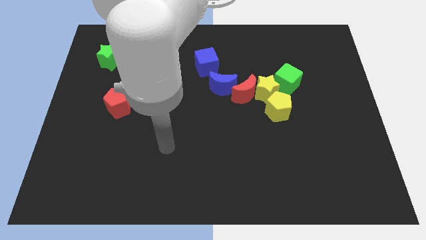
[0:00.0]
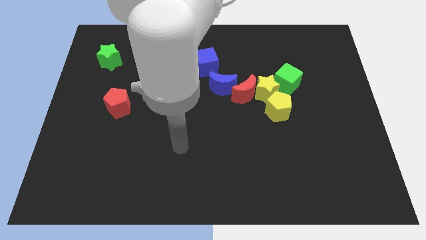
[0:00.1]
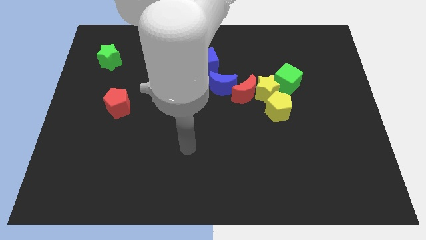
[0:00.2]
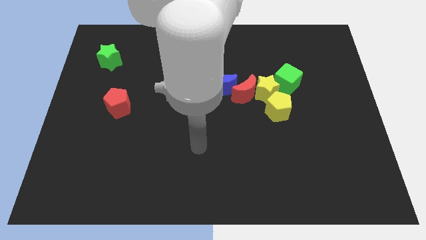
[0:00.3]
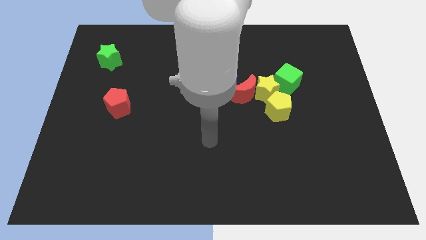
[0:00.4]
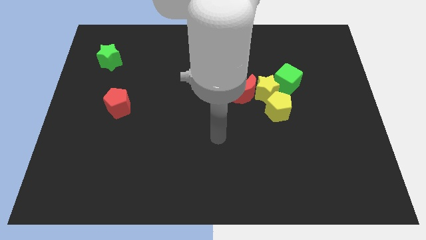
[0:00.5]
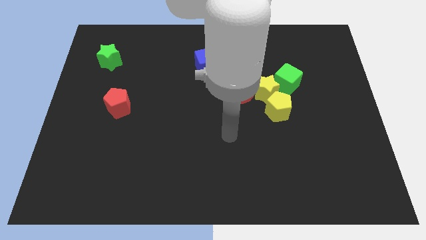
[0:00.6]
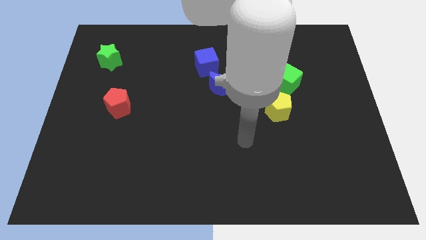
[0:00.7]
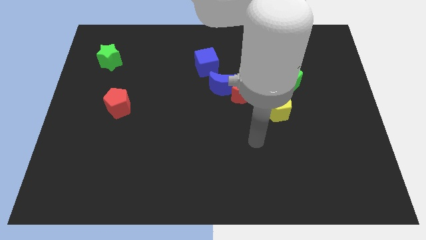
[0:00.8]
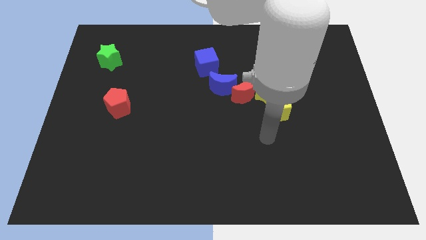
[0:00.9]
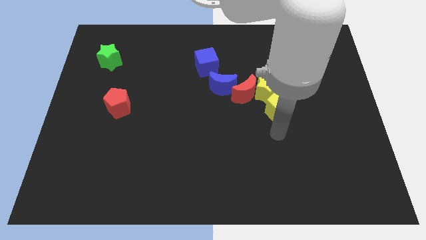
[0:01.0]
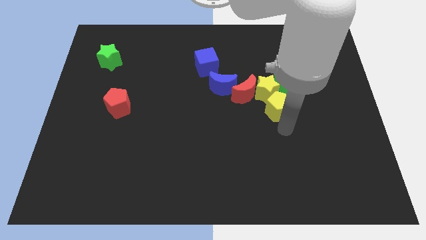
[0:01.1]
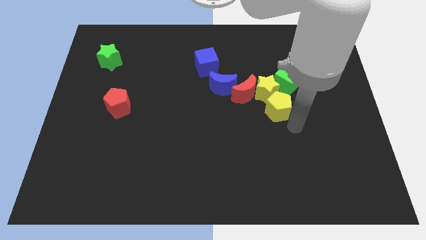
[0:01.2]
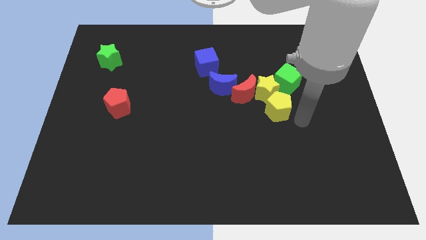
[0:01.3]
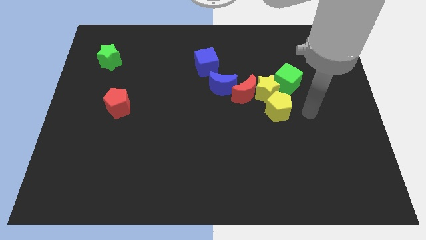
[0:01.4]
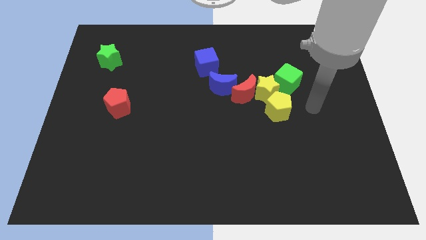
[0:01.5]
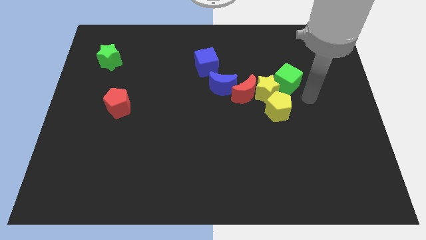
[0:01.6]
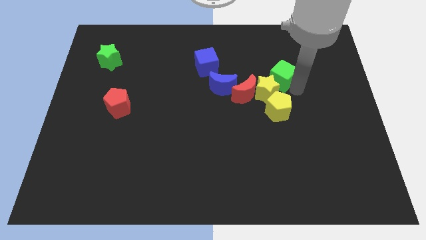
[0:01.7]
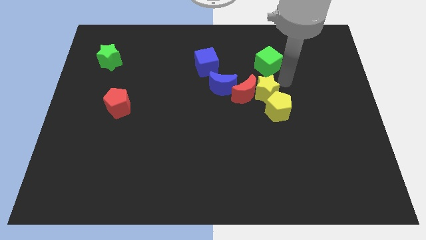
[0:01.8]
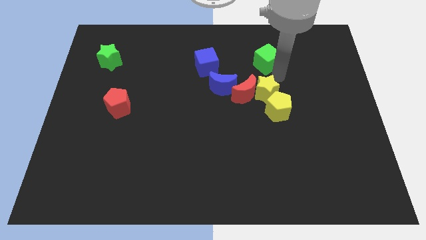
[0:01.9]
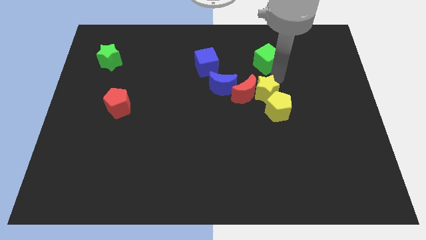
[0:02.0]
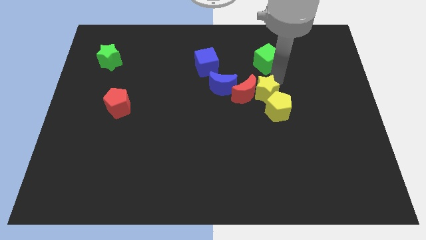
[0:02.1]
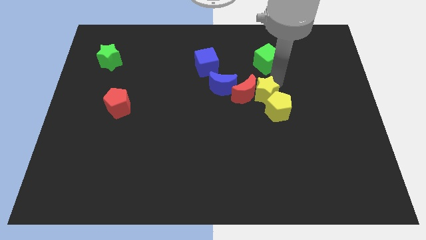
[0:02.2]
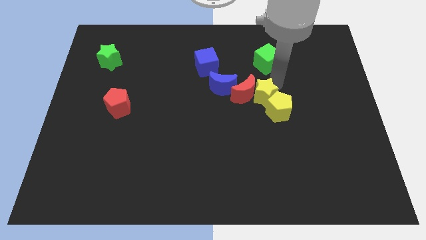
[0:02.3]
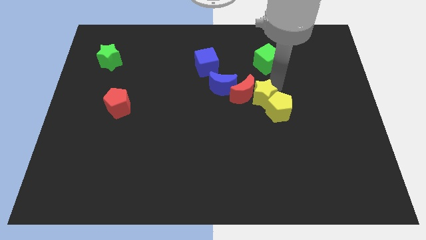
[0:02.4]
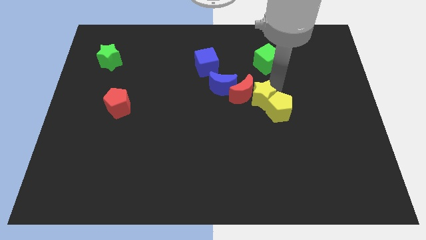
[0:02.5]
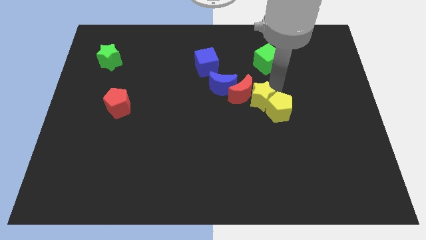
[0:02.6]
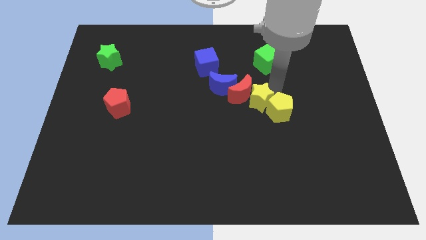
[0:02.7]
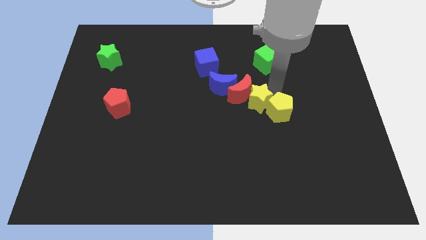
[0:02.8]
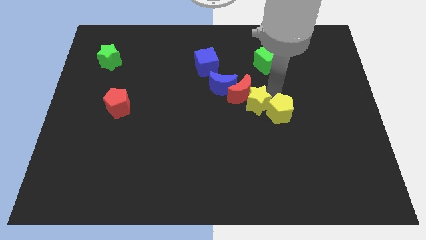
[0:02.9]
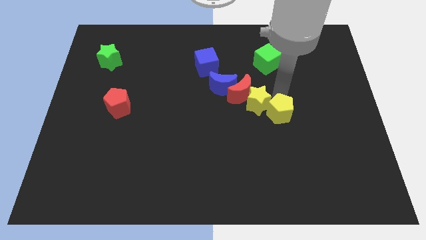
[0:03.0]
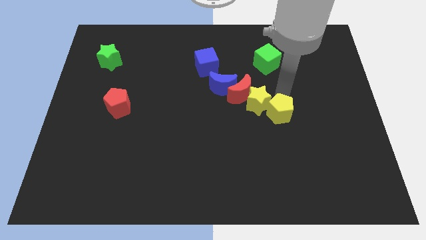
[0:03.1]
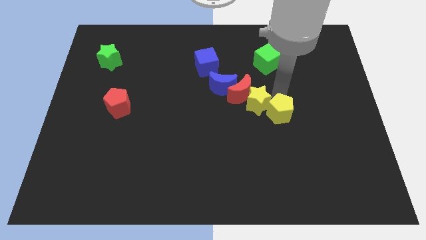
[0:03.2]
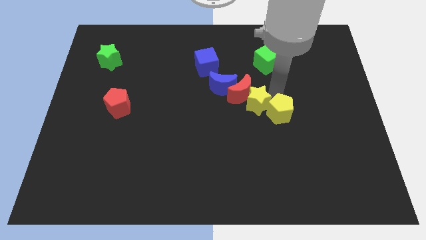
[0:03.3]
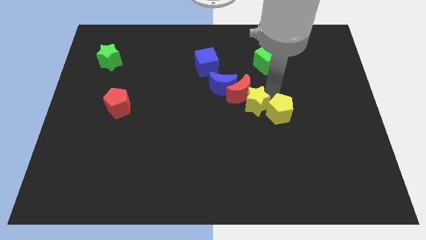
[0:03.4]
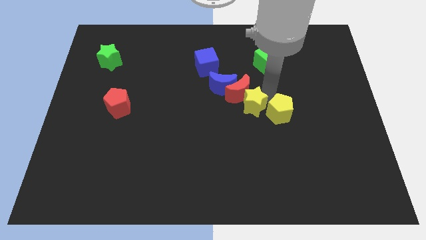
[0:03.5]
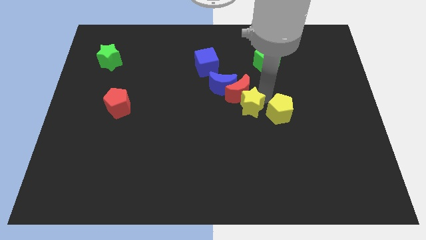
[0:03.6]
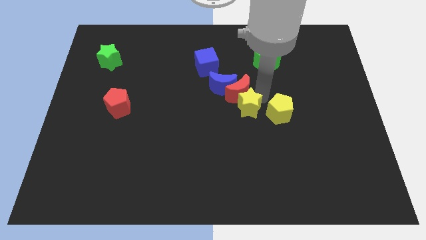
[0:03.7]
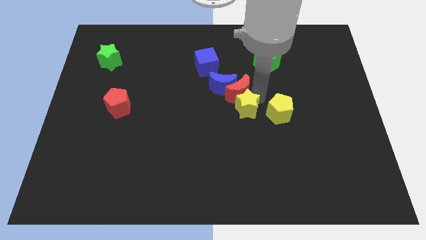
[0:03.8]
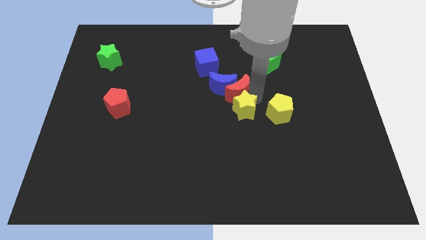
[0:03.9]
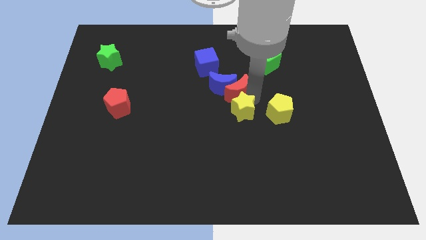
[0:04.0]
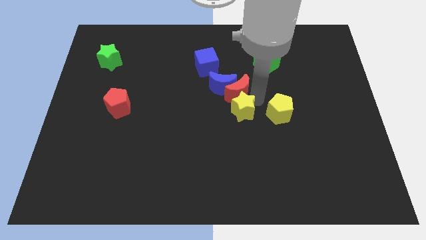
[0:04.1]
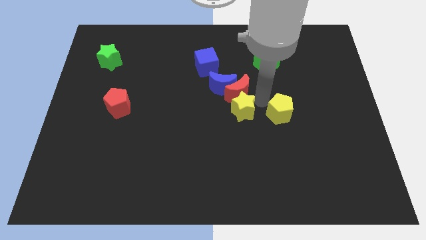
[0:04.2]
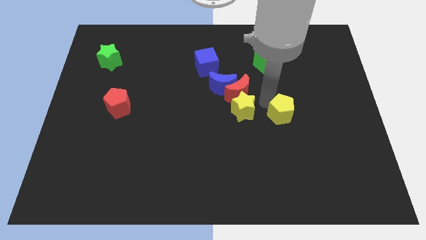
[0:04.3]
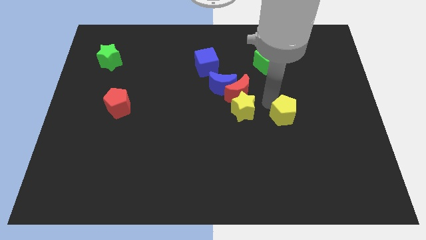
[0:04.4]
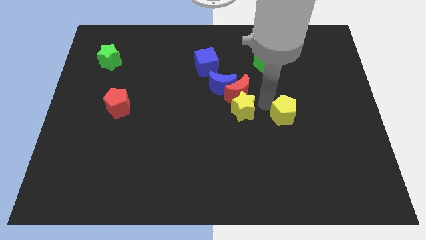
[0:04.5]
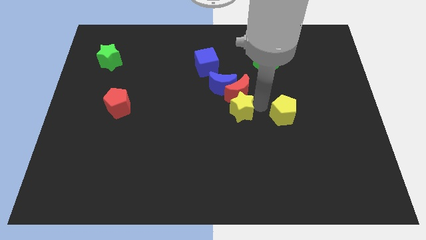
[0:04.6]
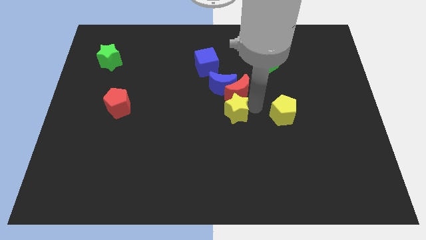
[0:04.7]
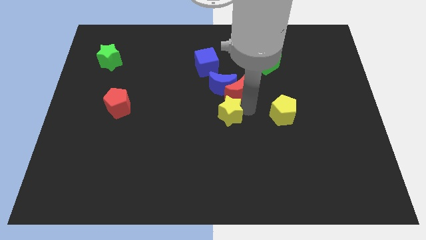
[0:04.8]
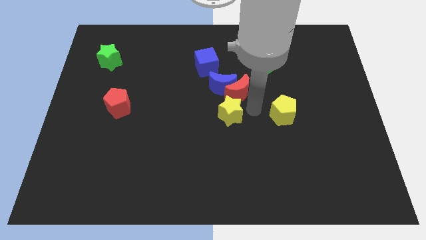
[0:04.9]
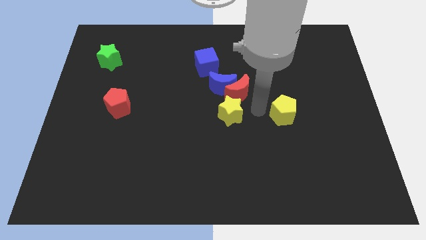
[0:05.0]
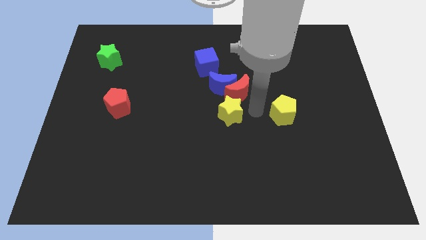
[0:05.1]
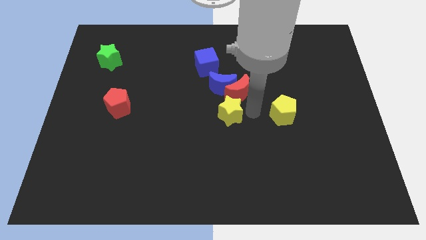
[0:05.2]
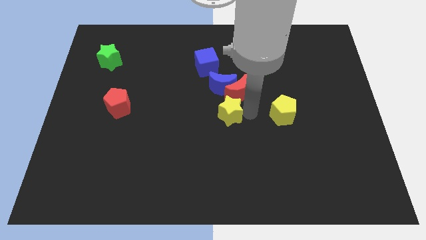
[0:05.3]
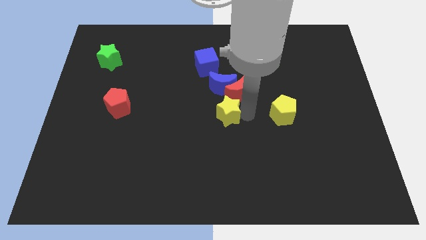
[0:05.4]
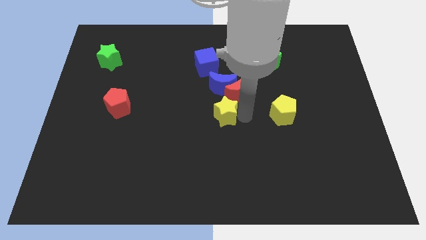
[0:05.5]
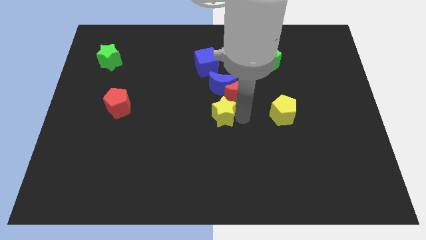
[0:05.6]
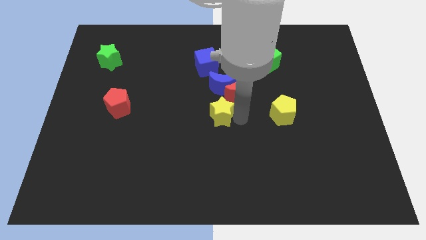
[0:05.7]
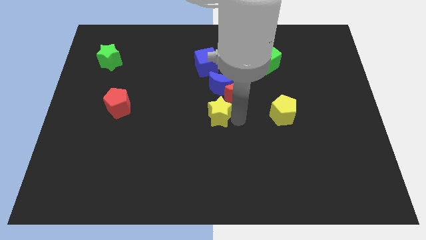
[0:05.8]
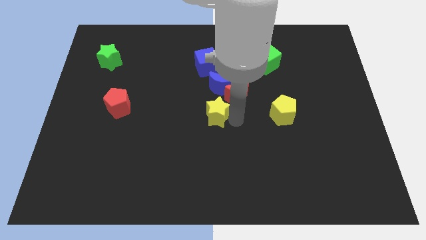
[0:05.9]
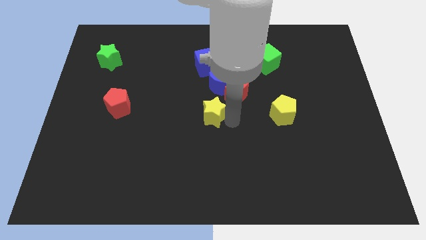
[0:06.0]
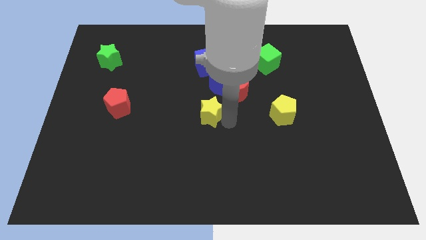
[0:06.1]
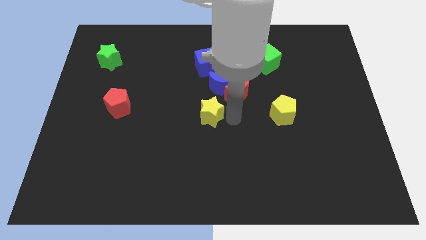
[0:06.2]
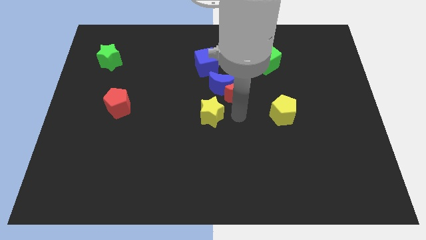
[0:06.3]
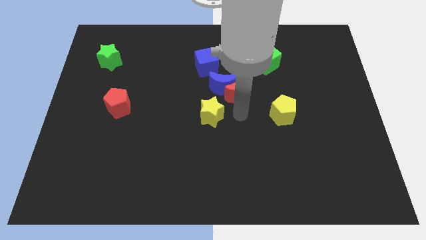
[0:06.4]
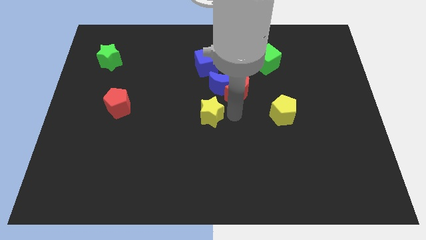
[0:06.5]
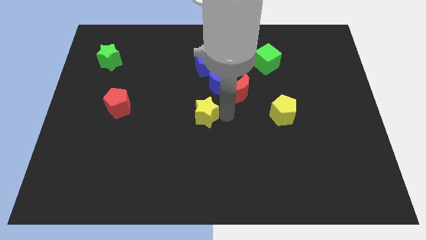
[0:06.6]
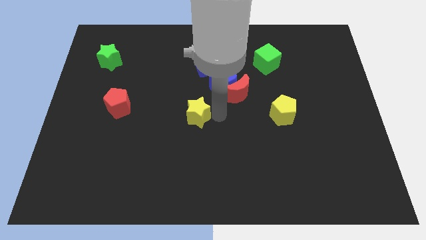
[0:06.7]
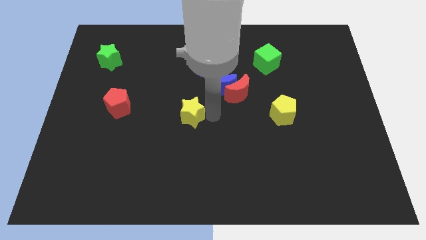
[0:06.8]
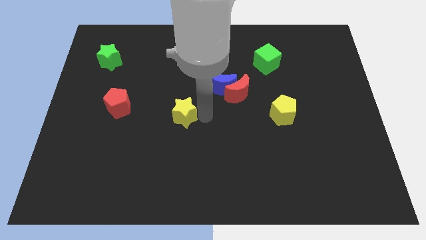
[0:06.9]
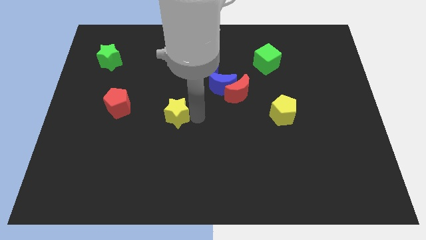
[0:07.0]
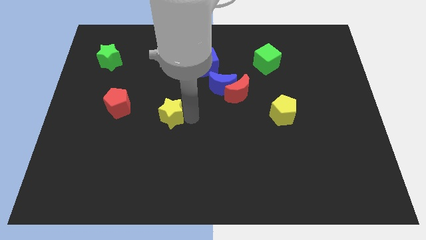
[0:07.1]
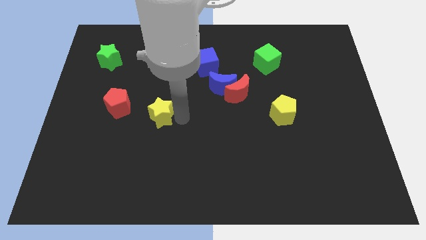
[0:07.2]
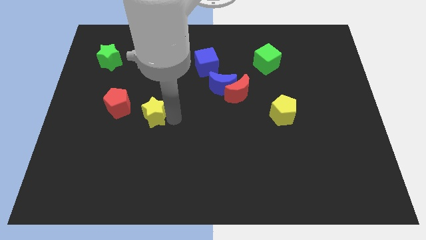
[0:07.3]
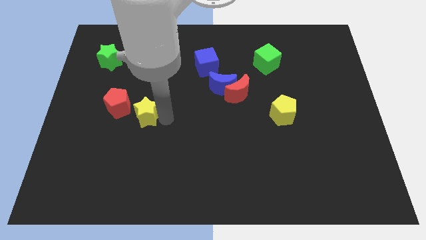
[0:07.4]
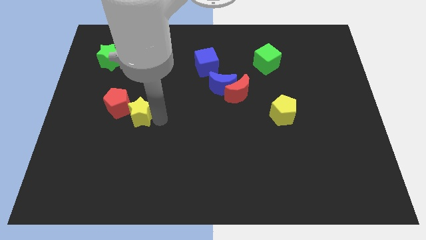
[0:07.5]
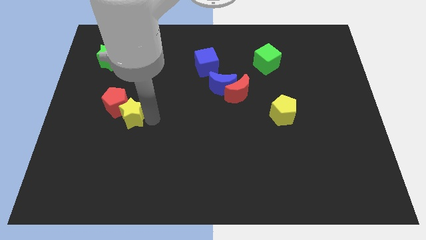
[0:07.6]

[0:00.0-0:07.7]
push the yellow star towards the red pentagon
